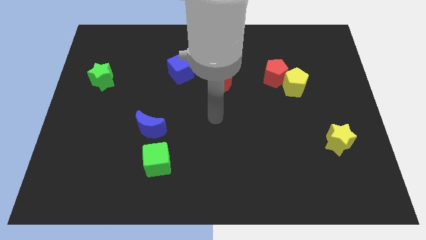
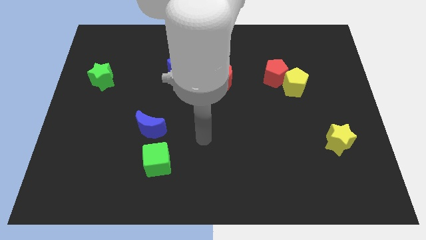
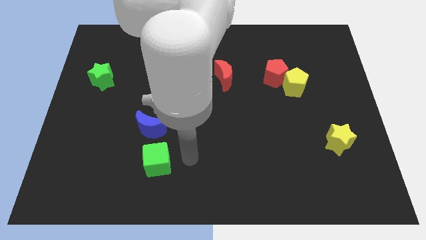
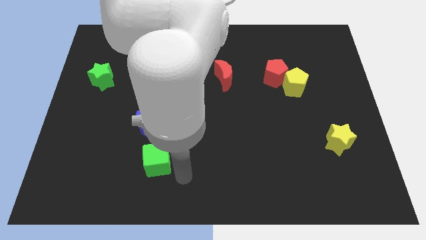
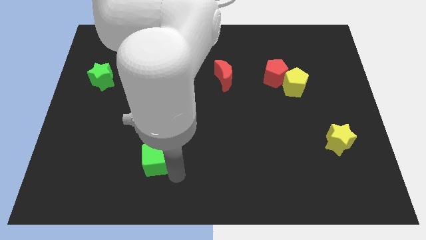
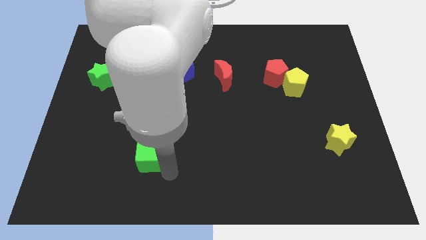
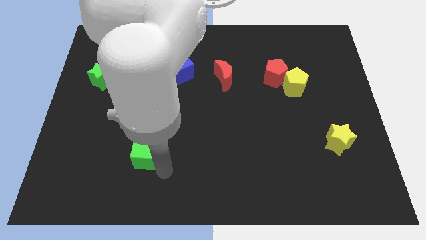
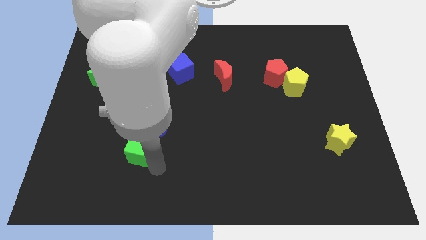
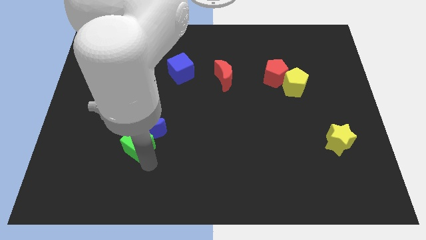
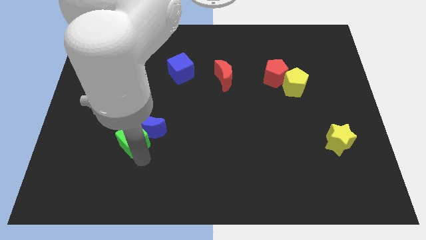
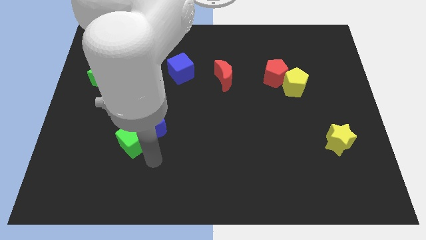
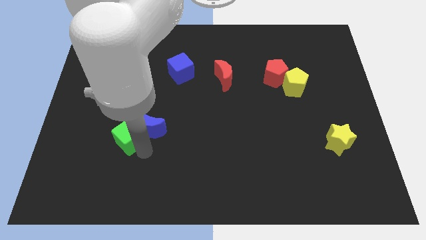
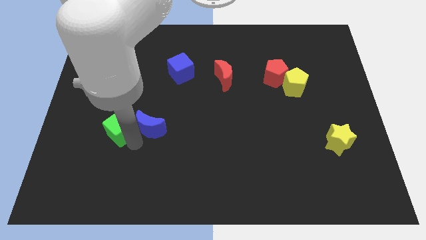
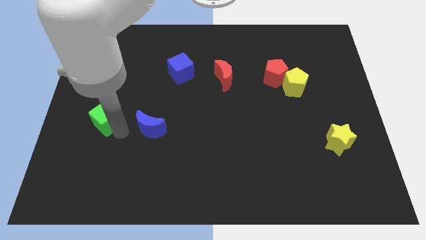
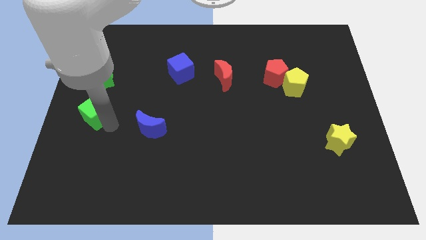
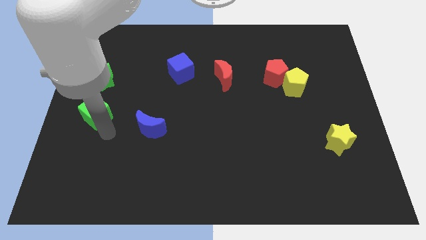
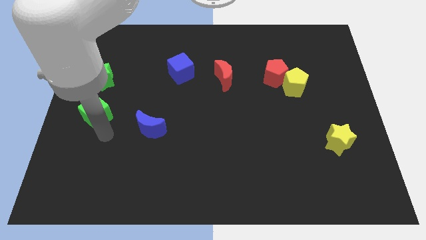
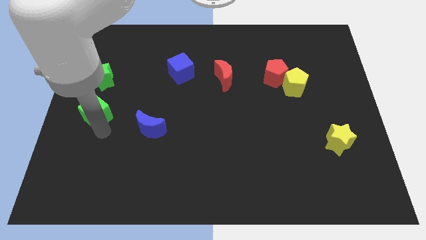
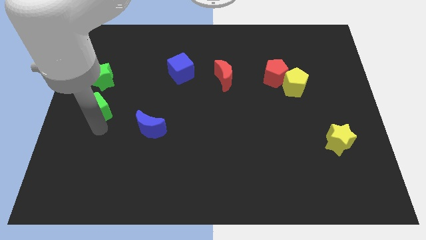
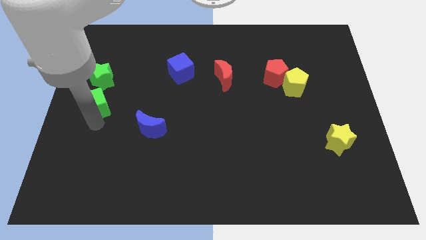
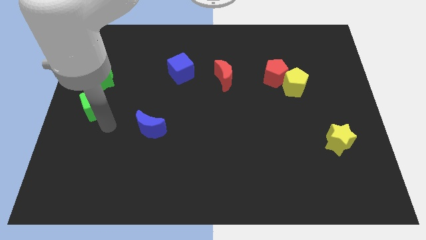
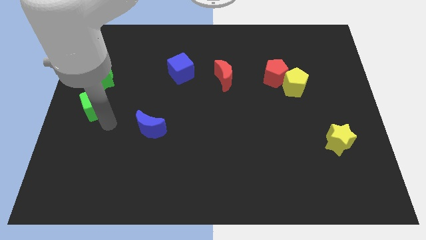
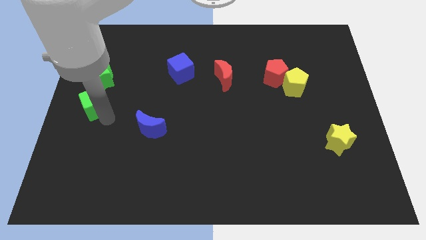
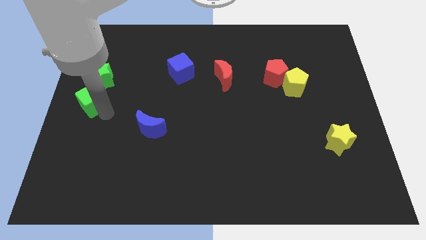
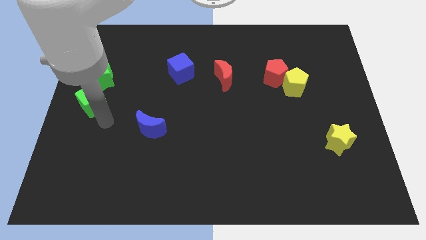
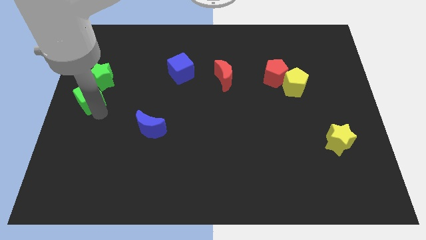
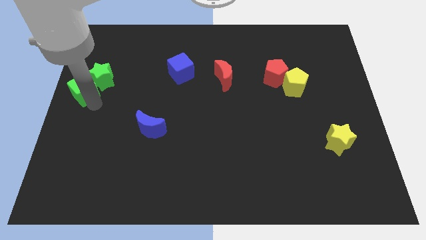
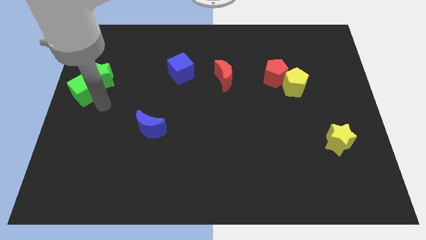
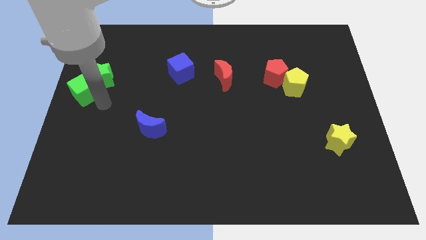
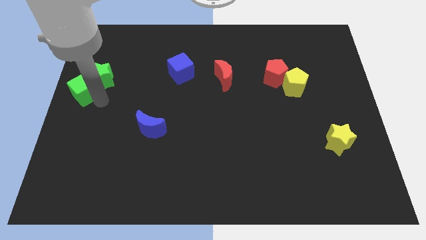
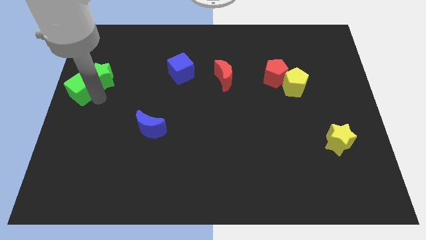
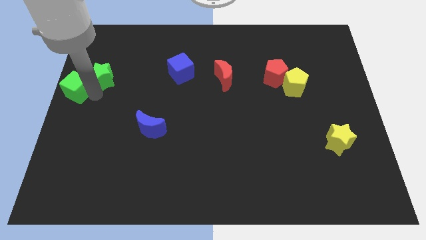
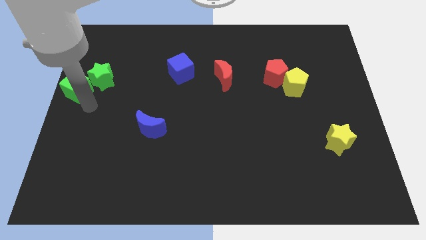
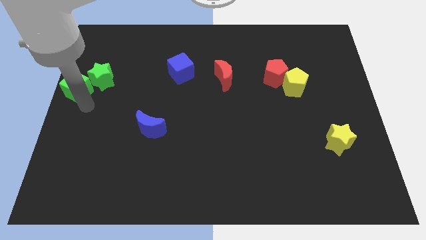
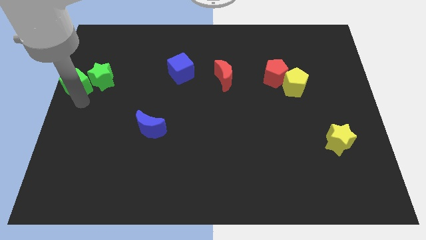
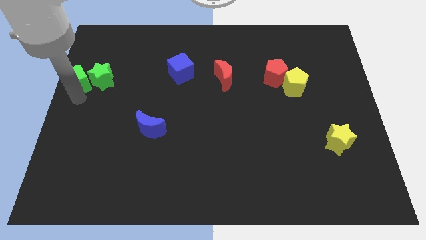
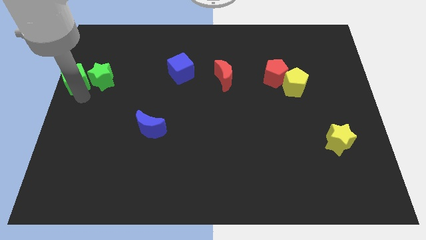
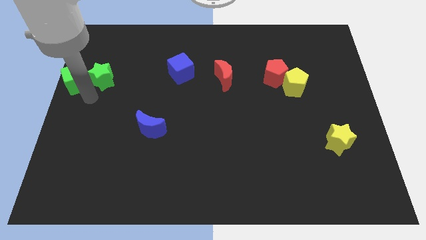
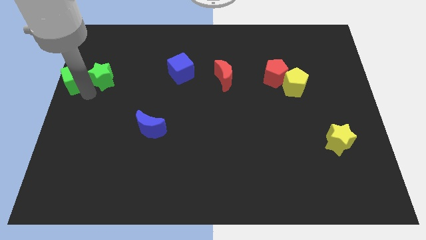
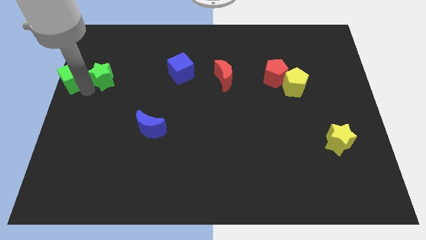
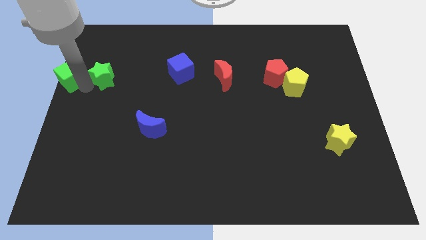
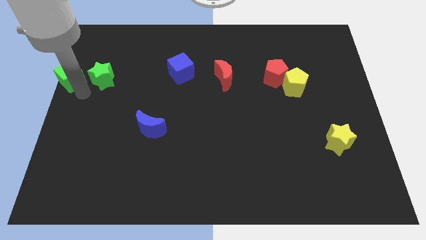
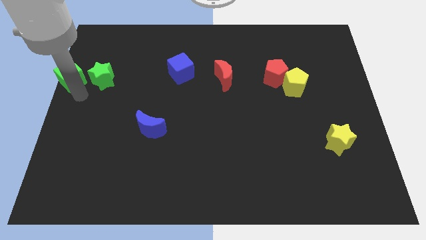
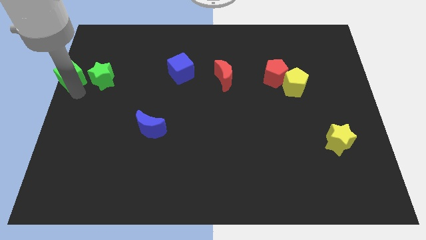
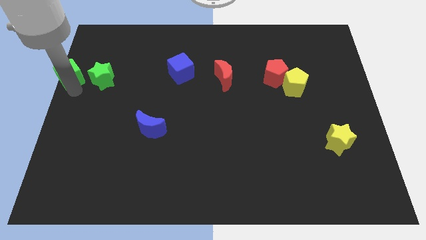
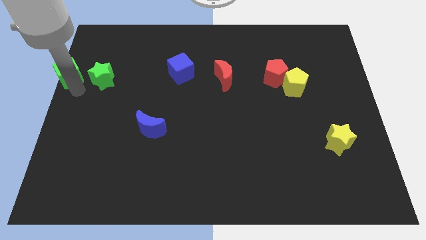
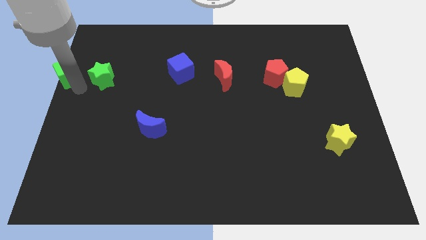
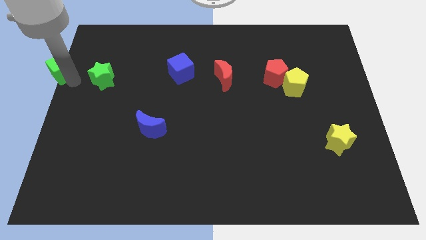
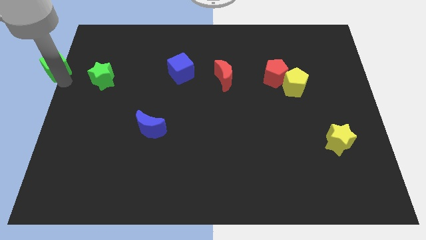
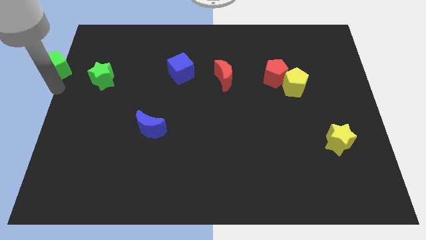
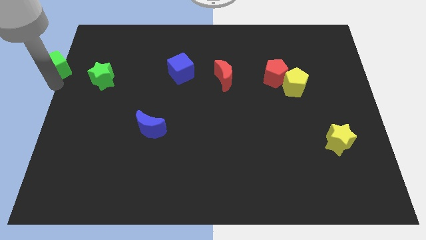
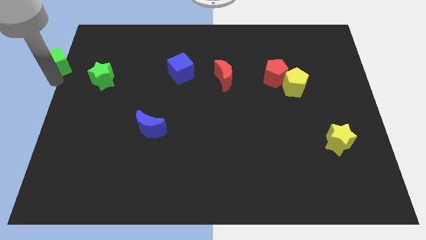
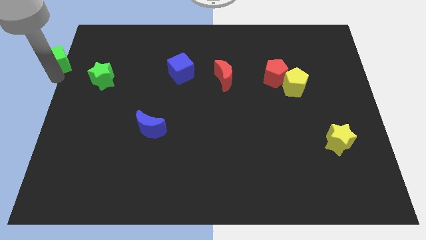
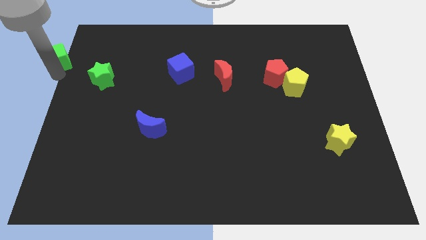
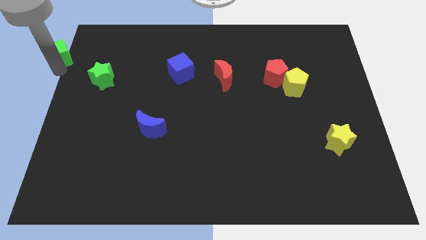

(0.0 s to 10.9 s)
move the green cube to the top left corner

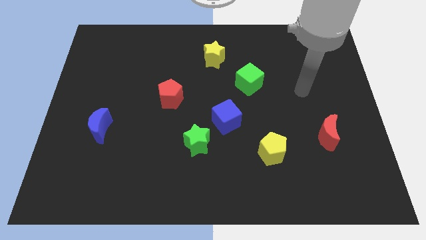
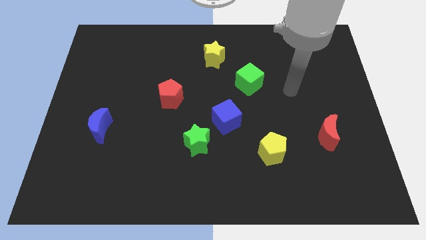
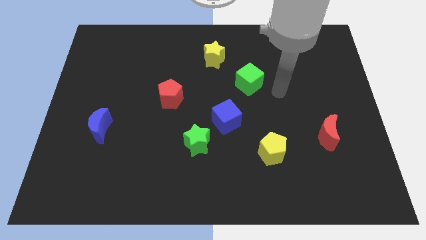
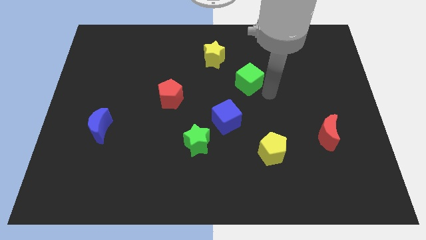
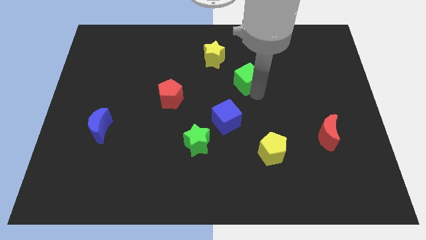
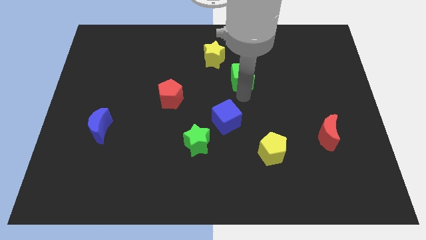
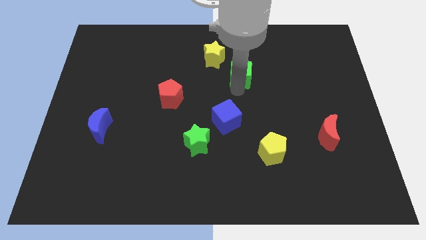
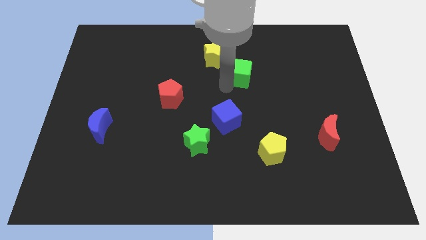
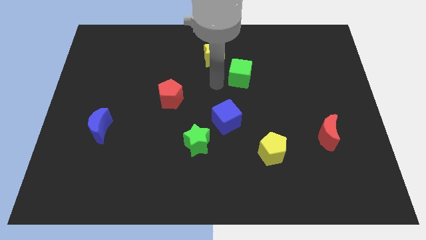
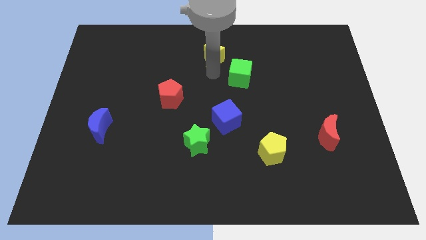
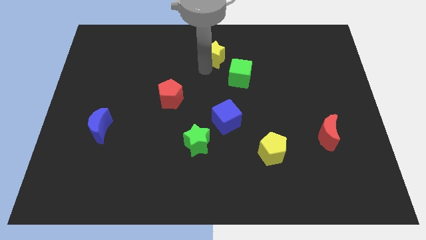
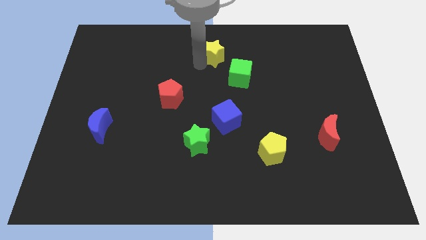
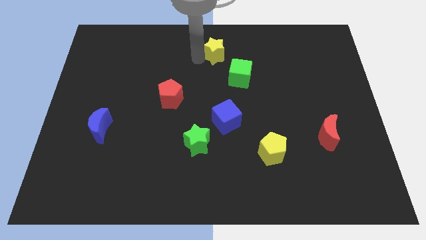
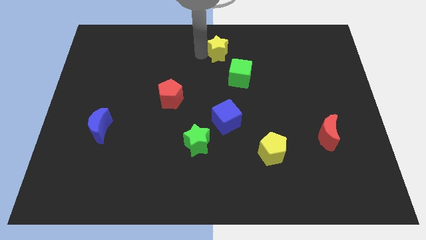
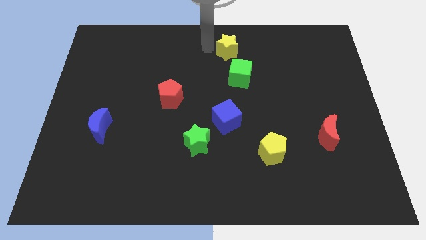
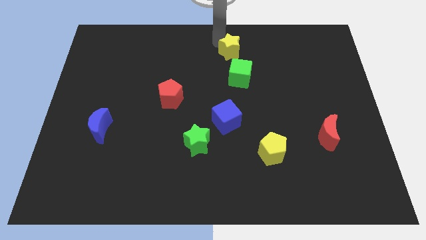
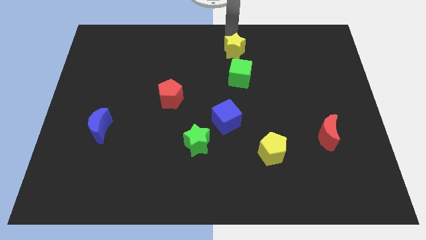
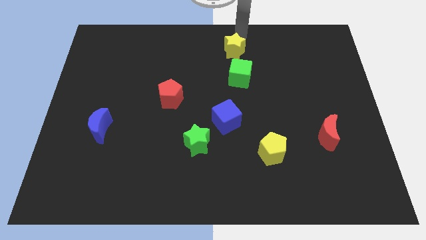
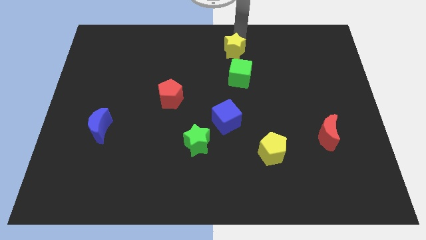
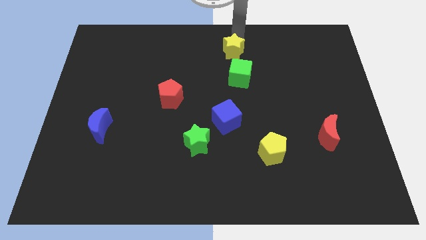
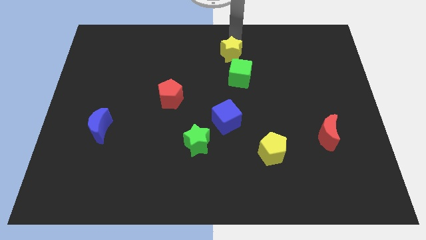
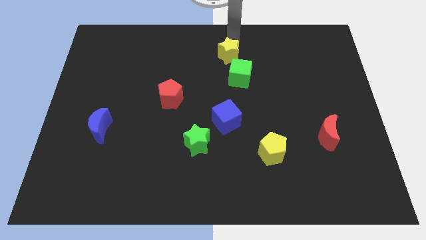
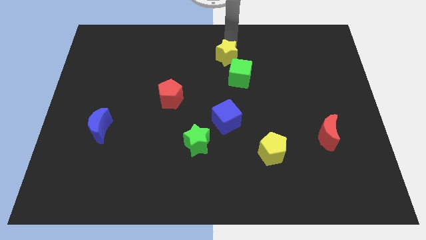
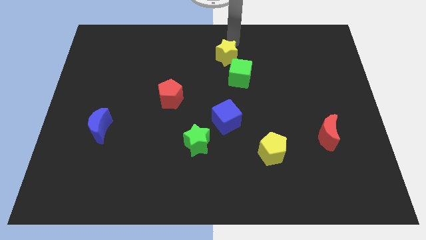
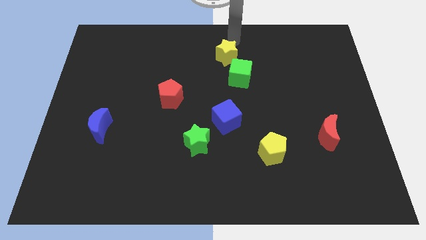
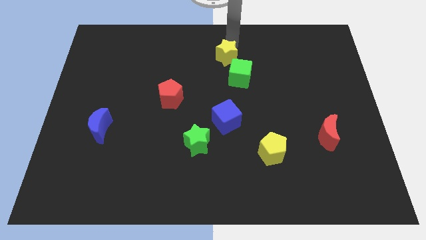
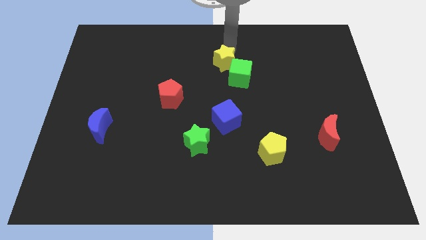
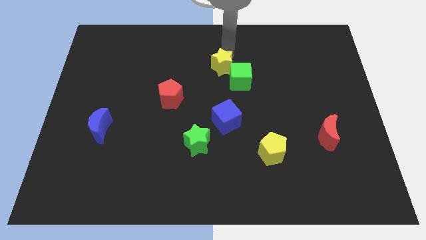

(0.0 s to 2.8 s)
push the yellow star to the middle
